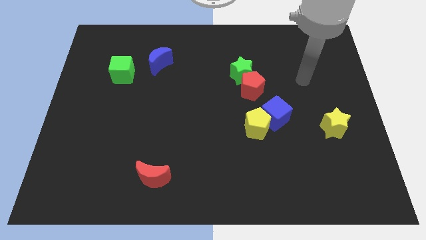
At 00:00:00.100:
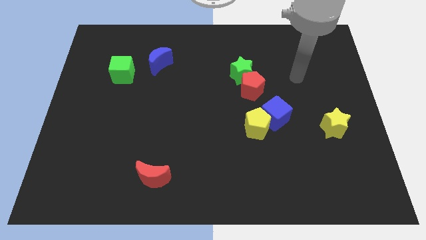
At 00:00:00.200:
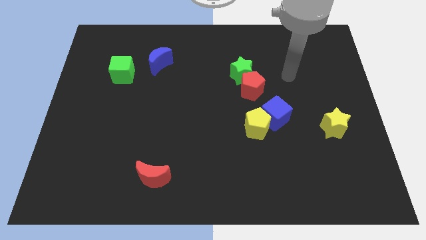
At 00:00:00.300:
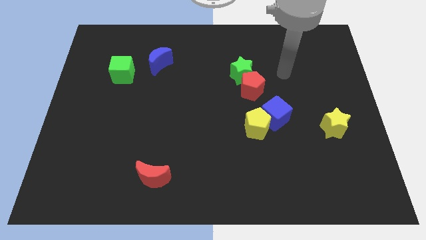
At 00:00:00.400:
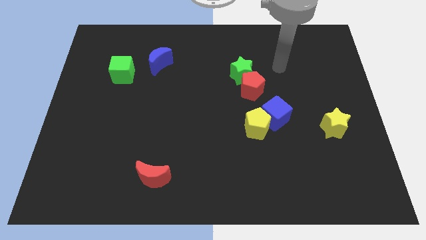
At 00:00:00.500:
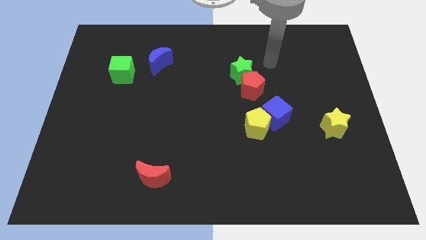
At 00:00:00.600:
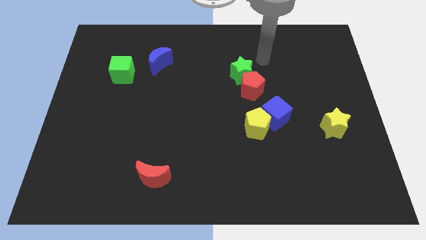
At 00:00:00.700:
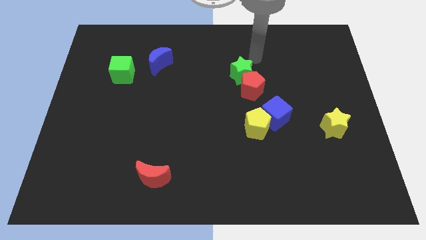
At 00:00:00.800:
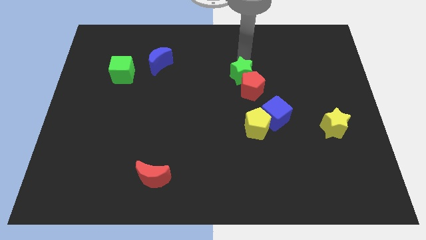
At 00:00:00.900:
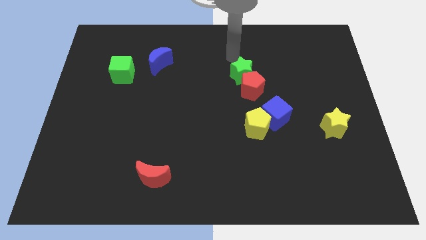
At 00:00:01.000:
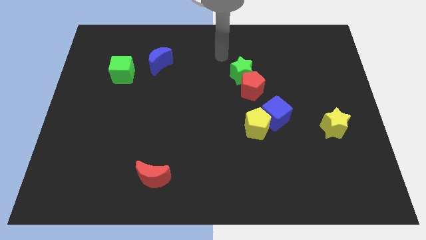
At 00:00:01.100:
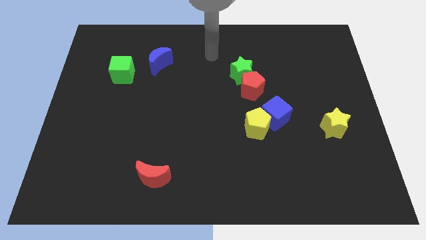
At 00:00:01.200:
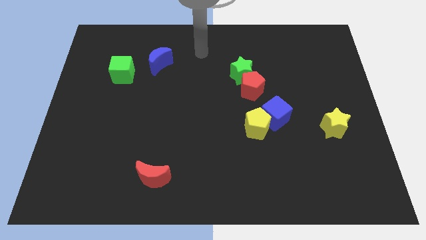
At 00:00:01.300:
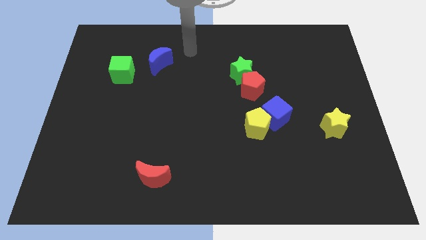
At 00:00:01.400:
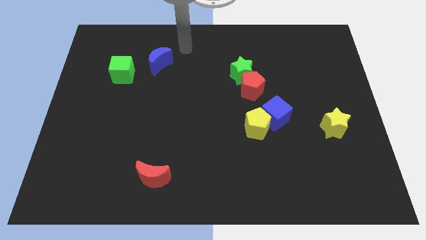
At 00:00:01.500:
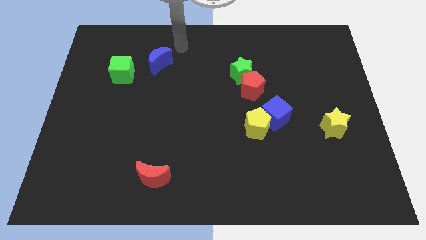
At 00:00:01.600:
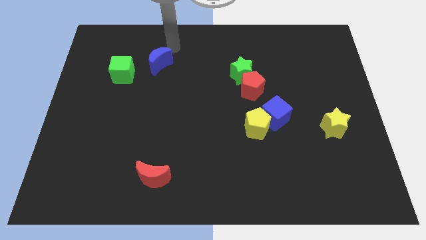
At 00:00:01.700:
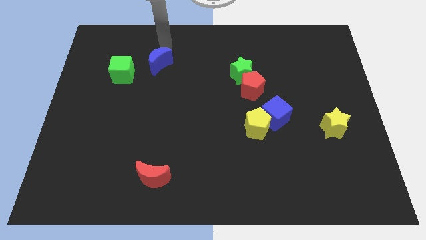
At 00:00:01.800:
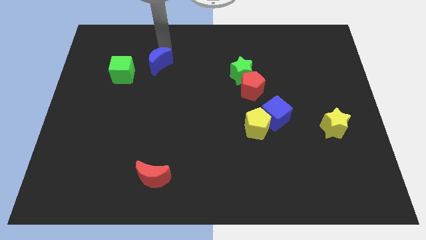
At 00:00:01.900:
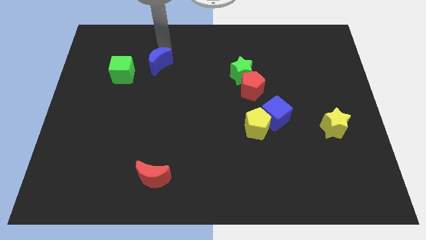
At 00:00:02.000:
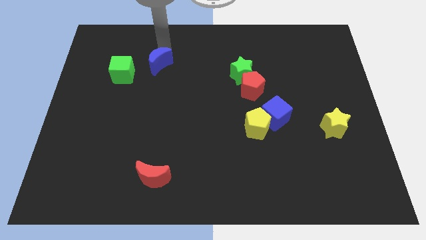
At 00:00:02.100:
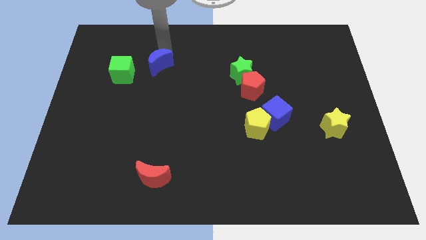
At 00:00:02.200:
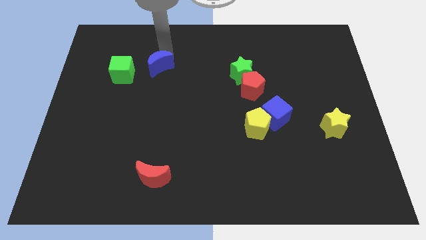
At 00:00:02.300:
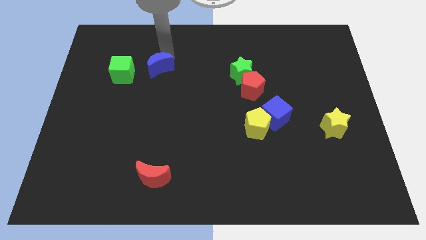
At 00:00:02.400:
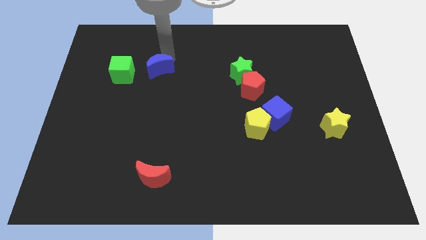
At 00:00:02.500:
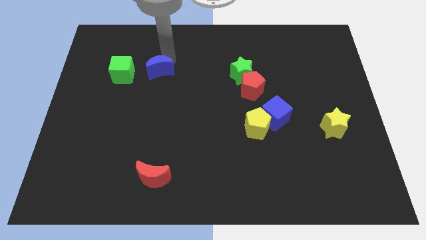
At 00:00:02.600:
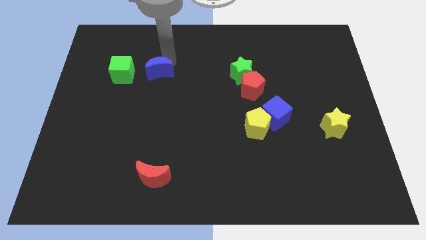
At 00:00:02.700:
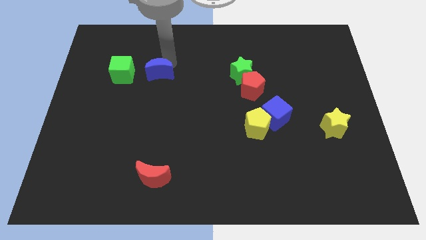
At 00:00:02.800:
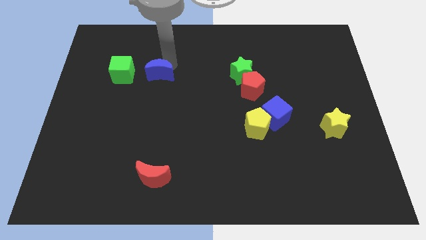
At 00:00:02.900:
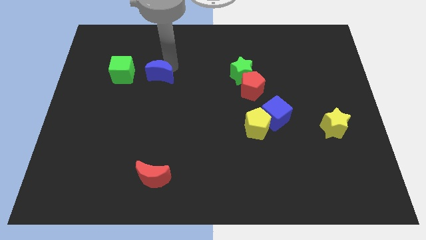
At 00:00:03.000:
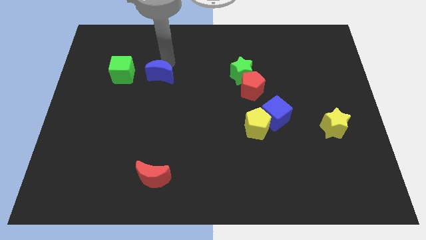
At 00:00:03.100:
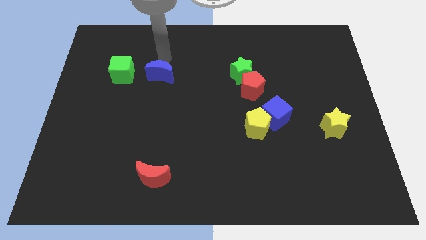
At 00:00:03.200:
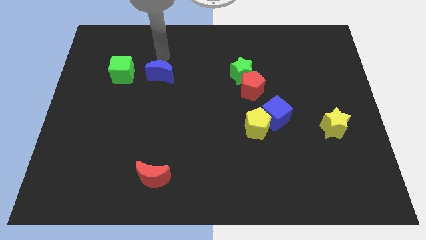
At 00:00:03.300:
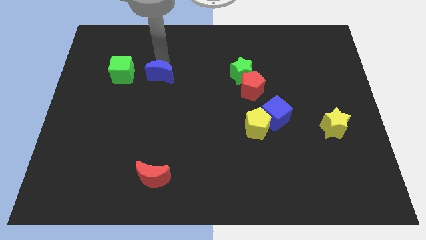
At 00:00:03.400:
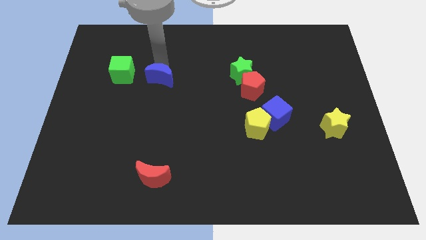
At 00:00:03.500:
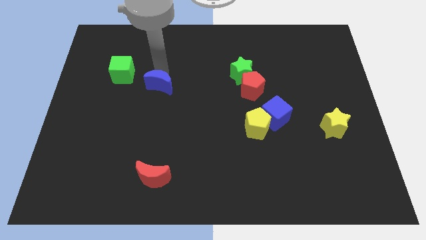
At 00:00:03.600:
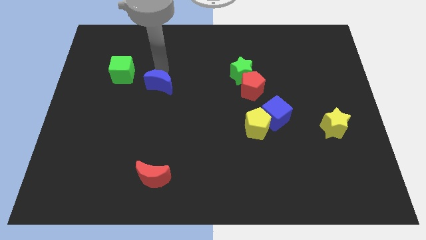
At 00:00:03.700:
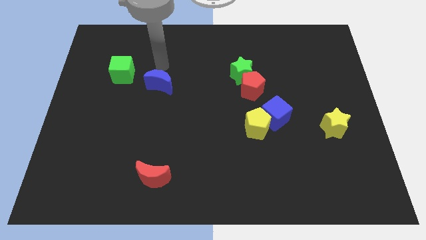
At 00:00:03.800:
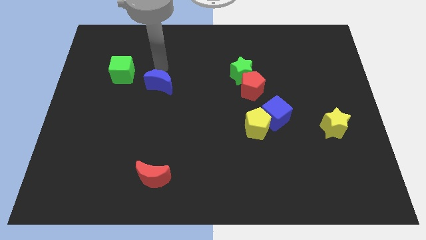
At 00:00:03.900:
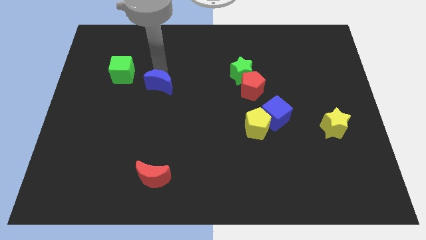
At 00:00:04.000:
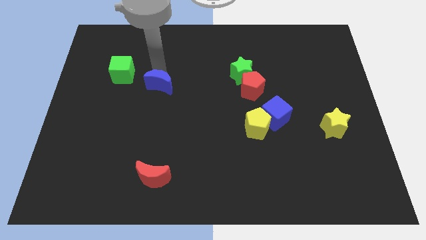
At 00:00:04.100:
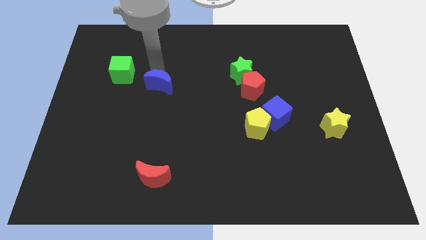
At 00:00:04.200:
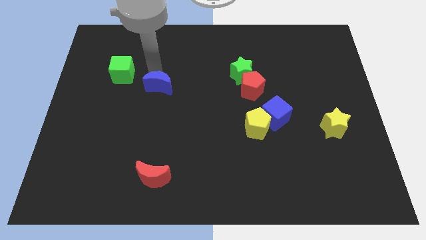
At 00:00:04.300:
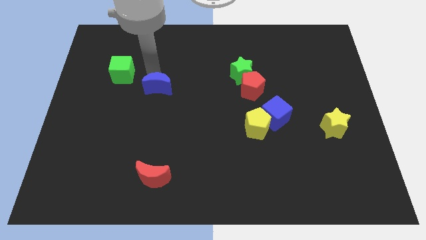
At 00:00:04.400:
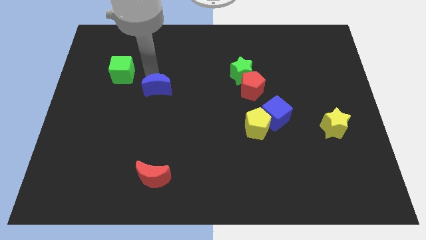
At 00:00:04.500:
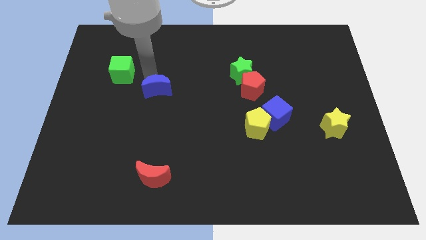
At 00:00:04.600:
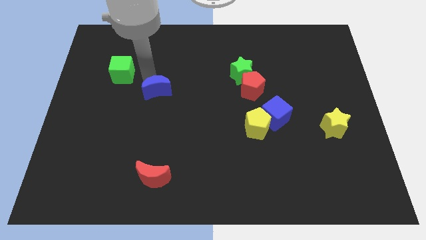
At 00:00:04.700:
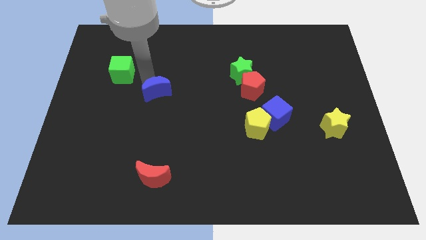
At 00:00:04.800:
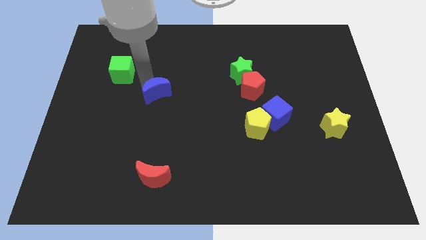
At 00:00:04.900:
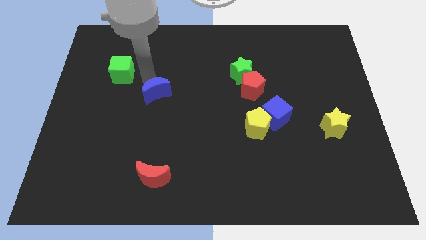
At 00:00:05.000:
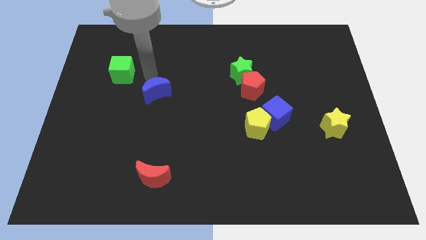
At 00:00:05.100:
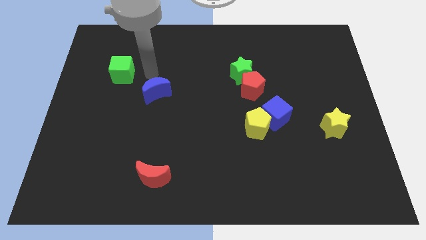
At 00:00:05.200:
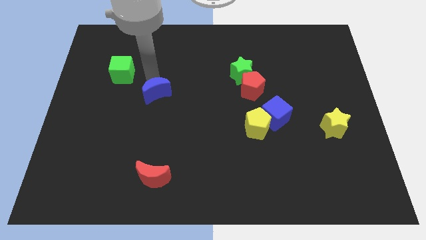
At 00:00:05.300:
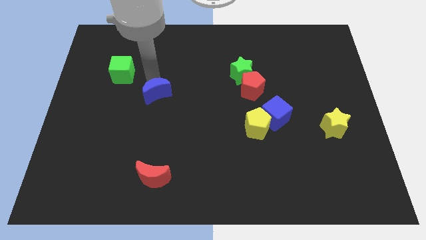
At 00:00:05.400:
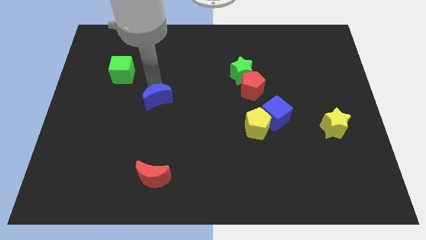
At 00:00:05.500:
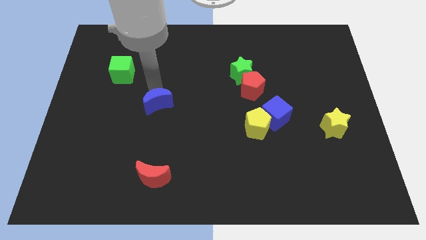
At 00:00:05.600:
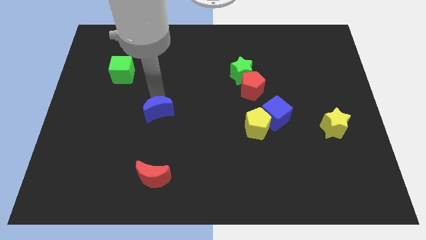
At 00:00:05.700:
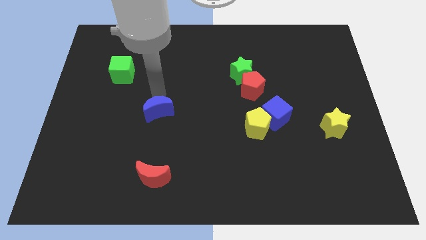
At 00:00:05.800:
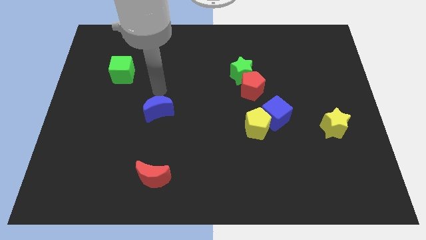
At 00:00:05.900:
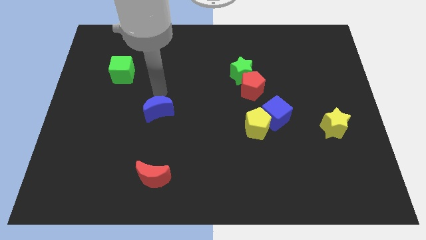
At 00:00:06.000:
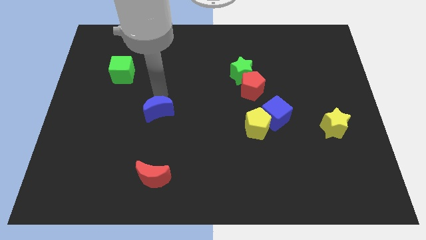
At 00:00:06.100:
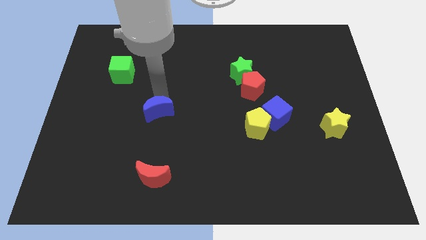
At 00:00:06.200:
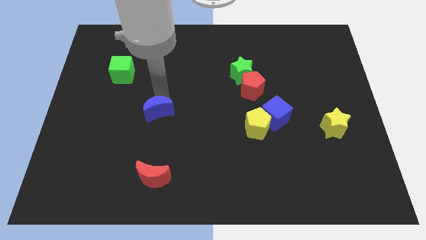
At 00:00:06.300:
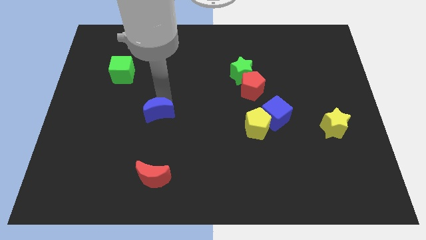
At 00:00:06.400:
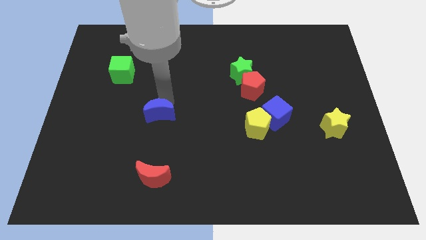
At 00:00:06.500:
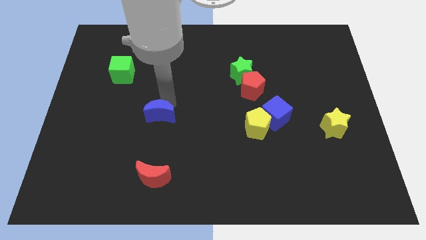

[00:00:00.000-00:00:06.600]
slide the blue moon to the top of the red moon

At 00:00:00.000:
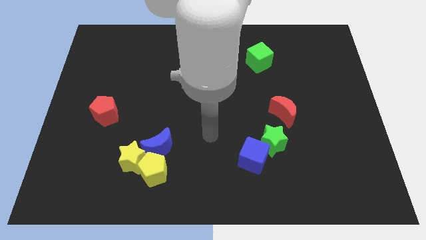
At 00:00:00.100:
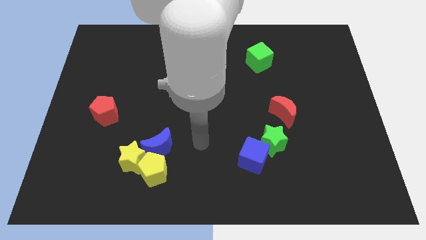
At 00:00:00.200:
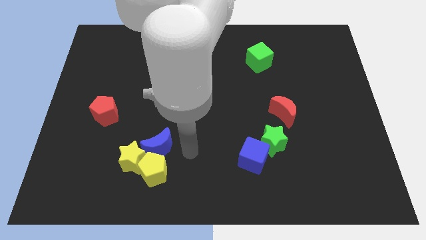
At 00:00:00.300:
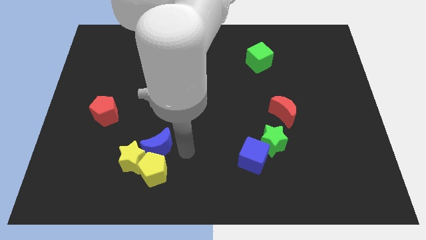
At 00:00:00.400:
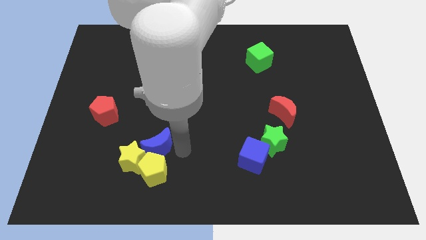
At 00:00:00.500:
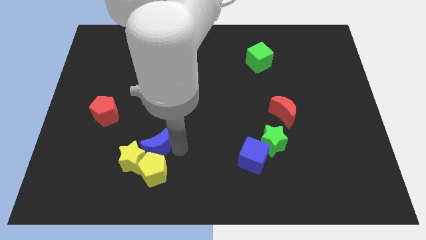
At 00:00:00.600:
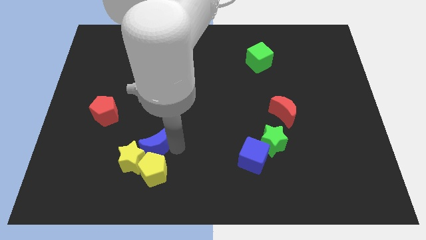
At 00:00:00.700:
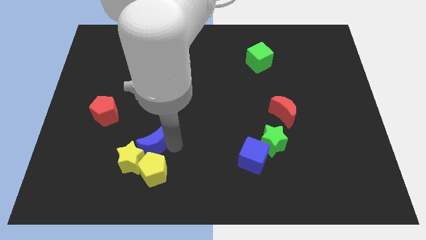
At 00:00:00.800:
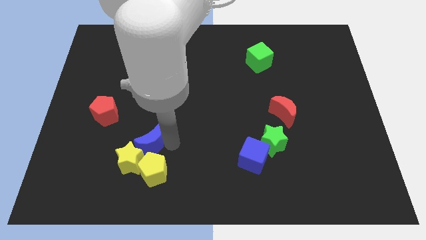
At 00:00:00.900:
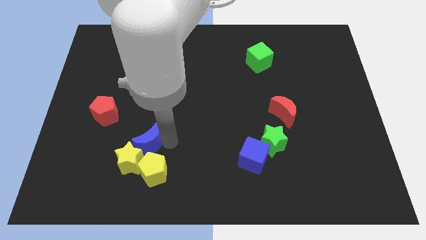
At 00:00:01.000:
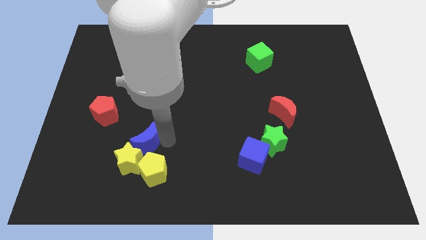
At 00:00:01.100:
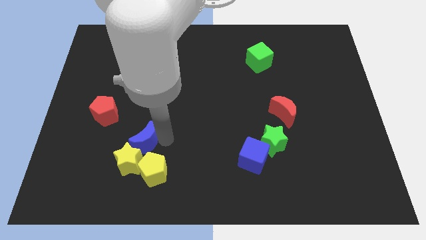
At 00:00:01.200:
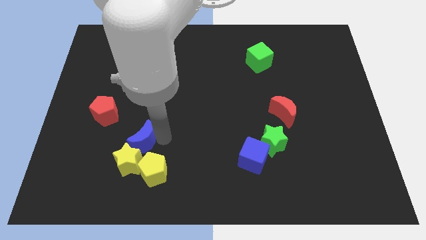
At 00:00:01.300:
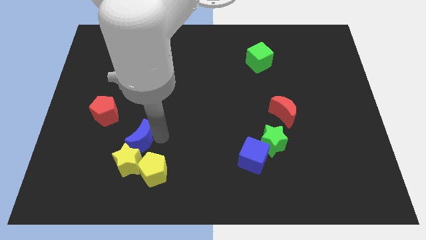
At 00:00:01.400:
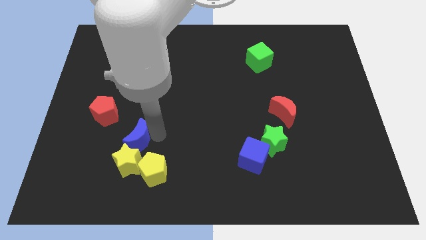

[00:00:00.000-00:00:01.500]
put the blue moon diagonally up and to the left of the yellow star

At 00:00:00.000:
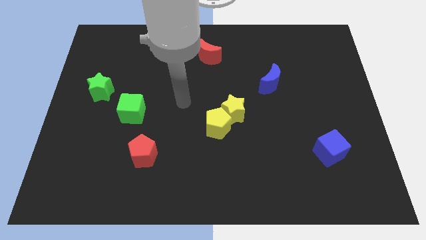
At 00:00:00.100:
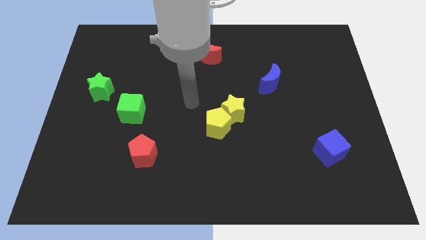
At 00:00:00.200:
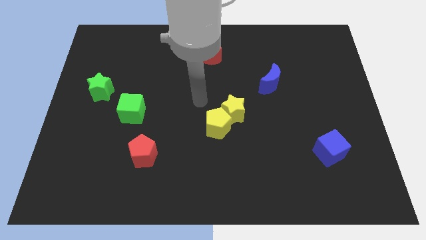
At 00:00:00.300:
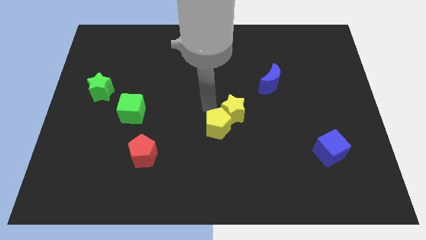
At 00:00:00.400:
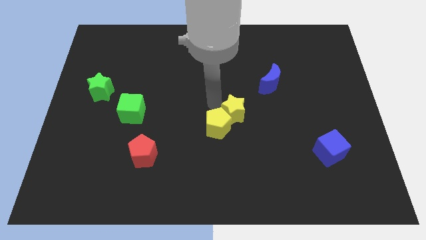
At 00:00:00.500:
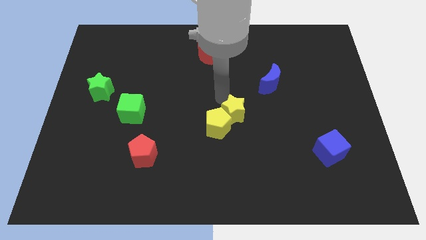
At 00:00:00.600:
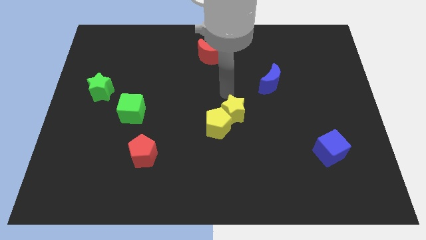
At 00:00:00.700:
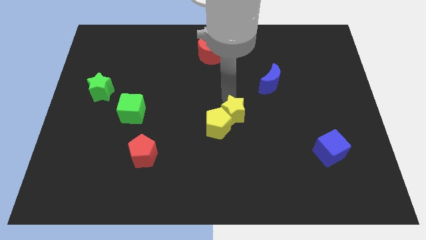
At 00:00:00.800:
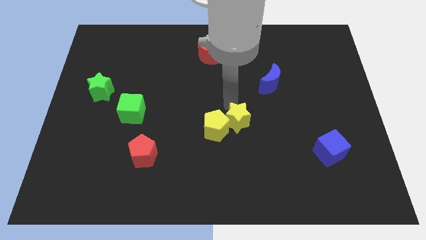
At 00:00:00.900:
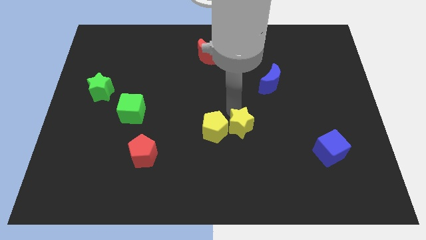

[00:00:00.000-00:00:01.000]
push the yellow star diagonally down and to the right of the yellow pentagon
